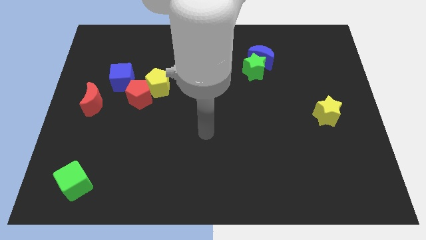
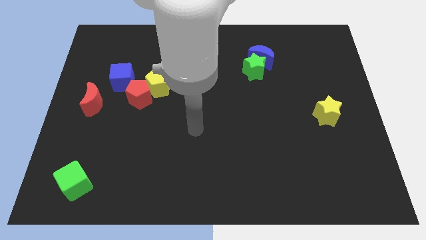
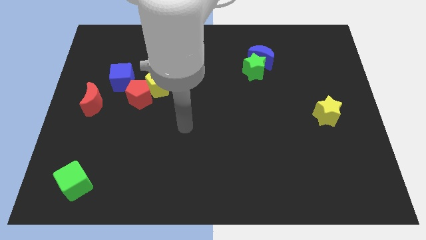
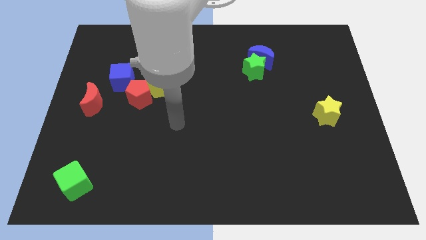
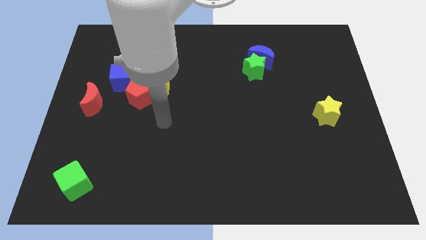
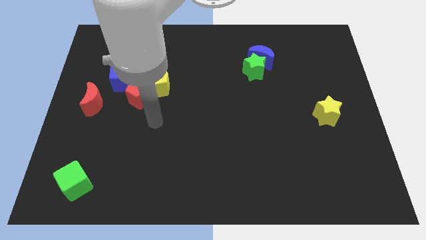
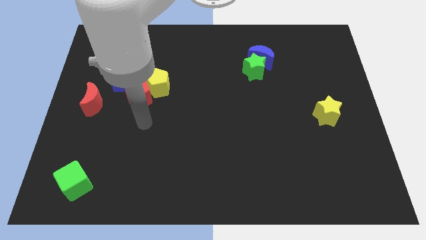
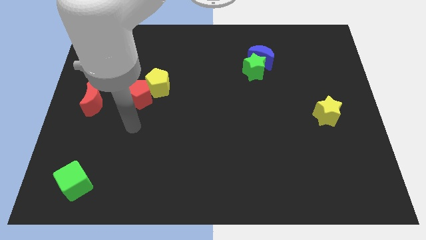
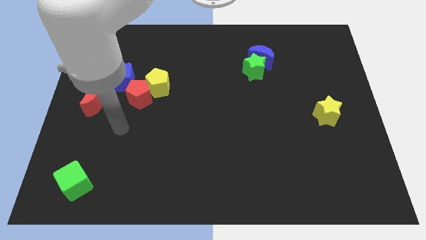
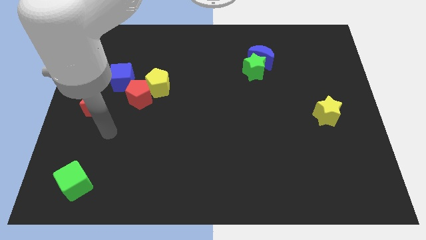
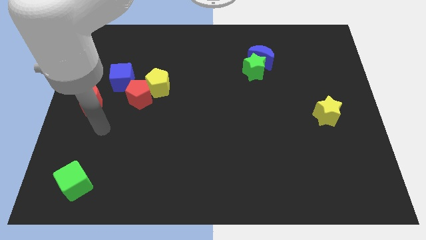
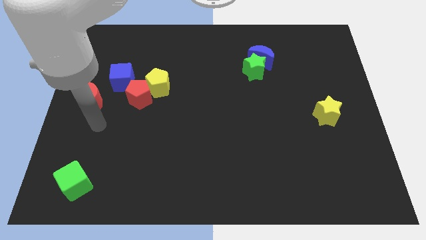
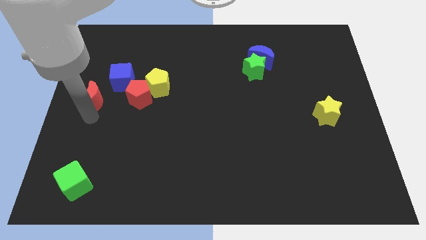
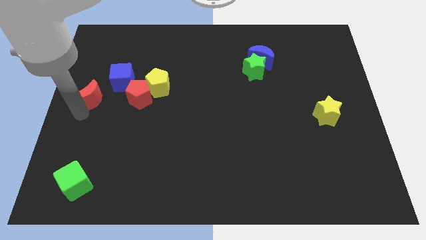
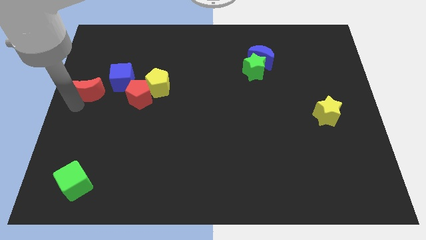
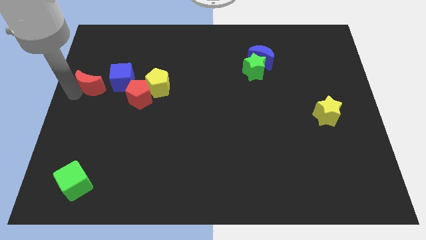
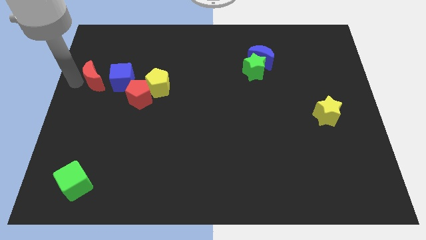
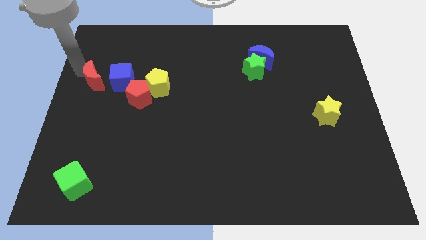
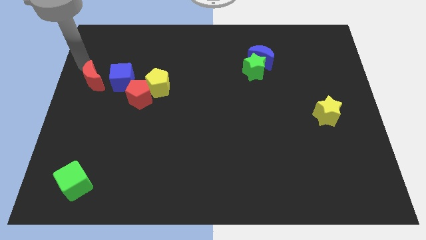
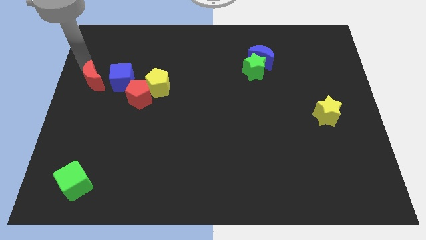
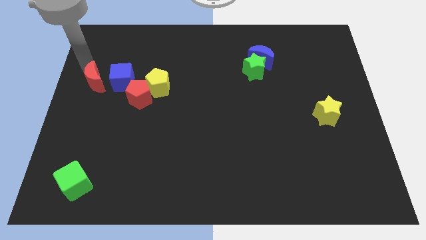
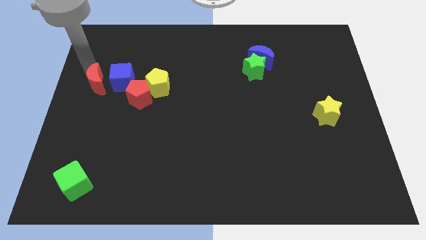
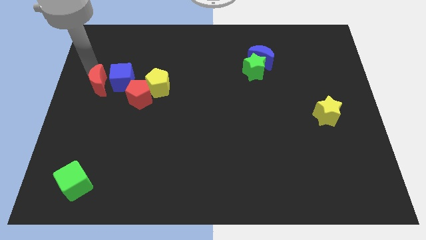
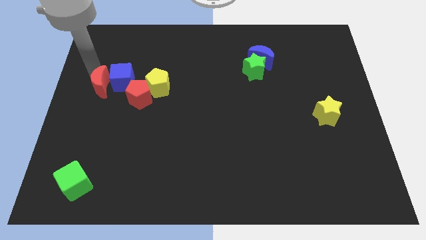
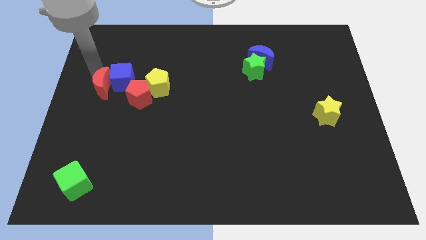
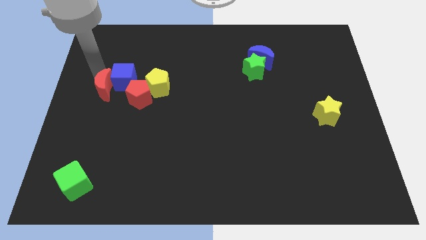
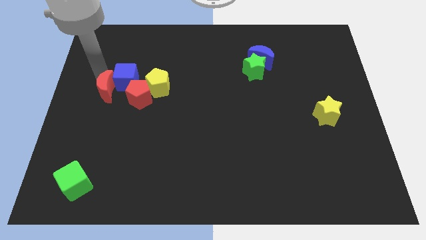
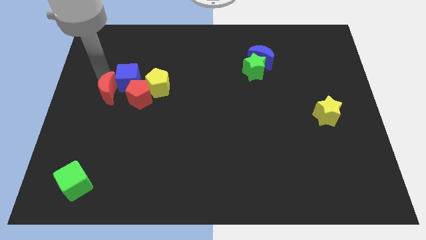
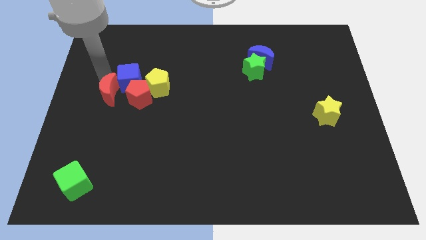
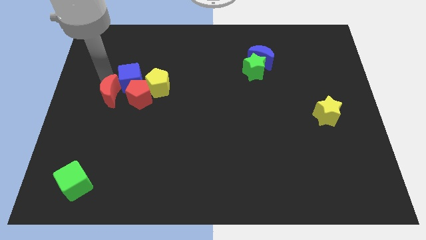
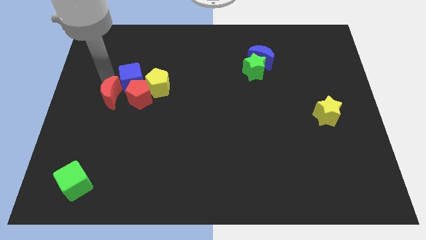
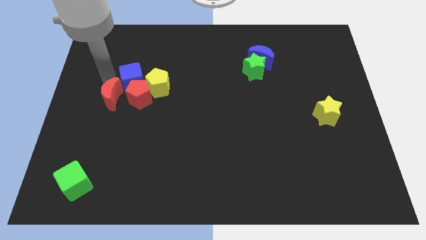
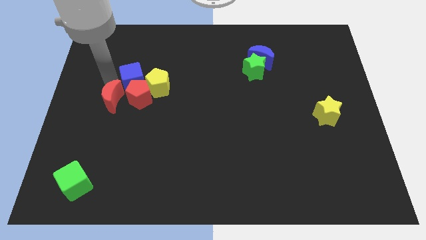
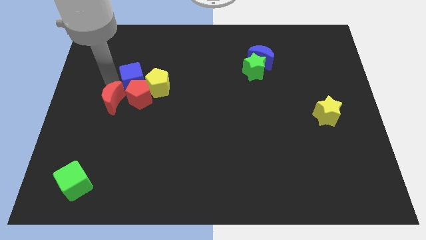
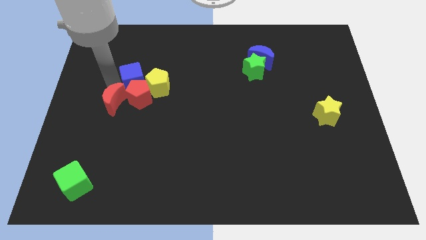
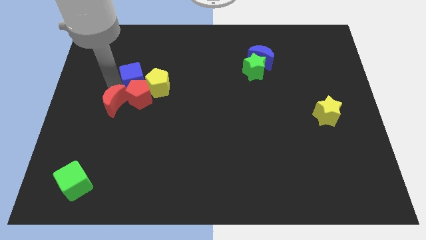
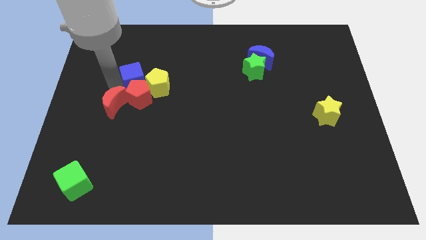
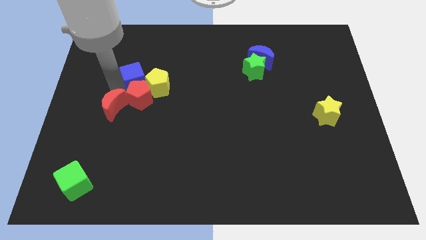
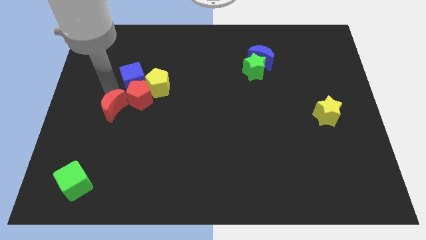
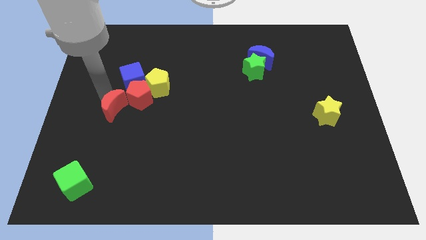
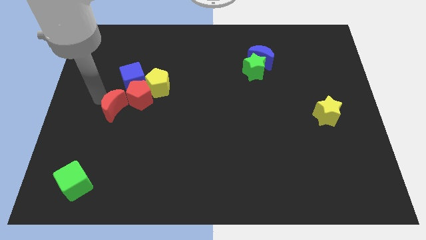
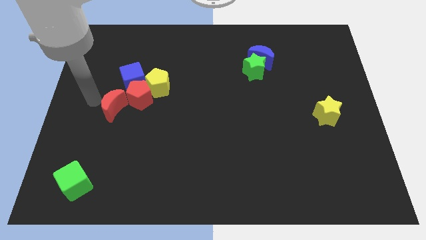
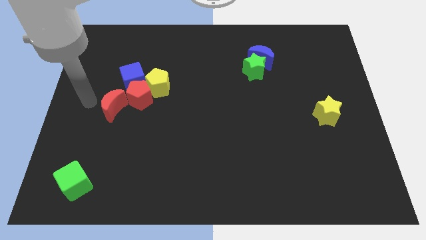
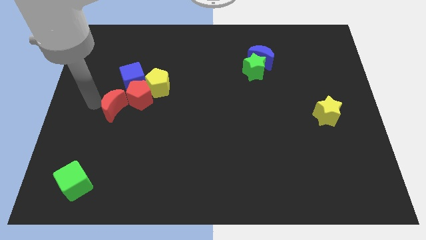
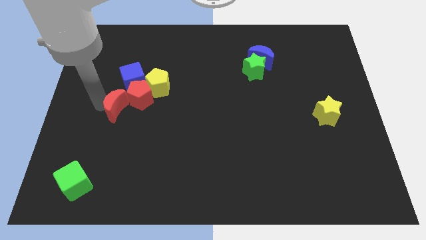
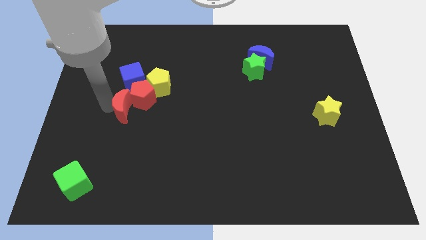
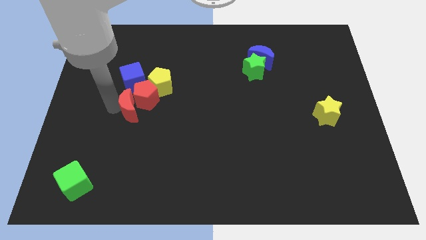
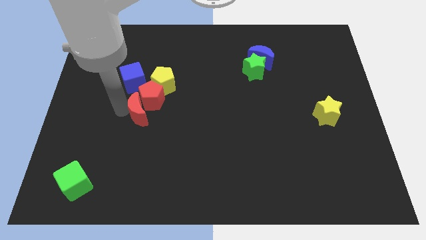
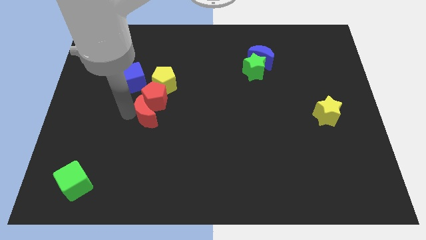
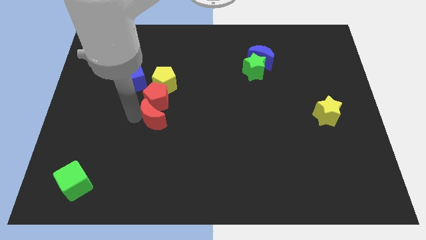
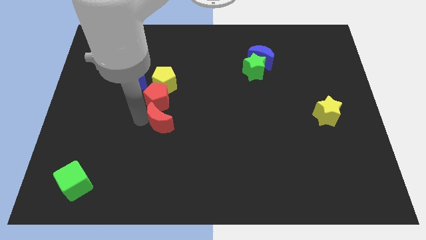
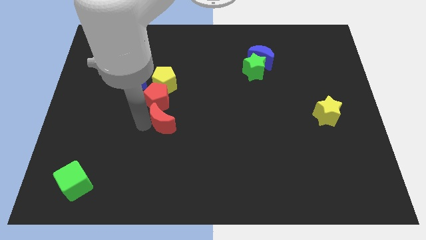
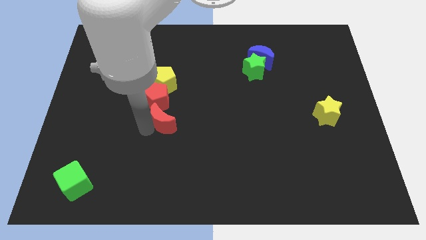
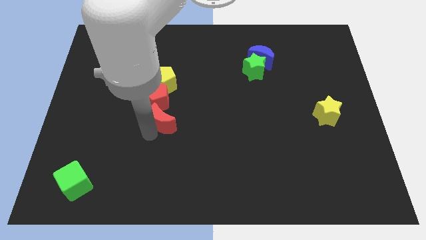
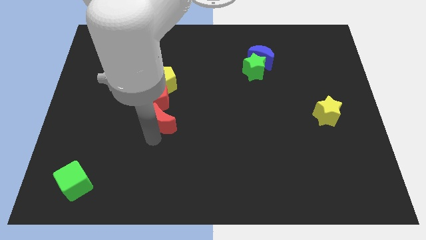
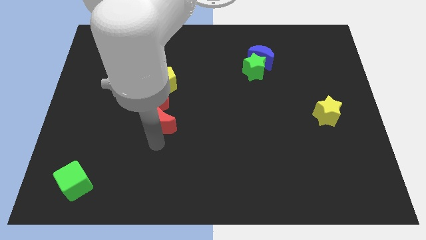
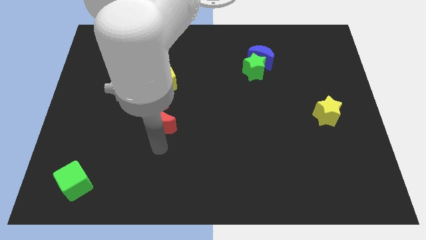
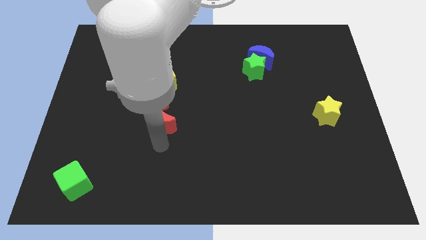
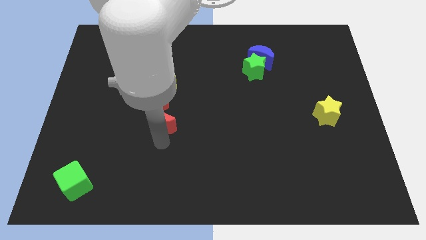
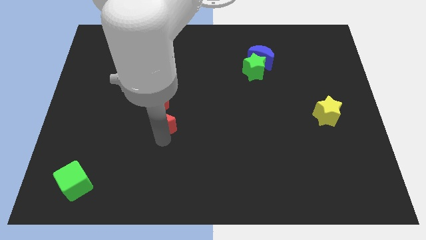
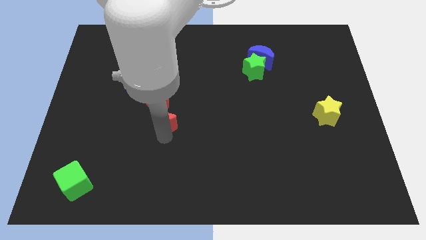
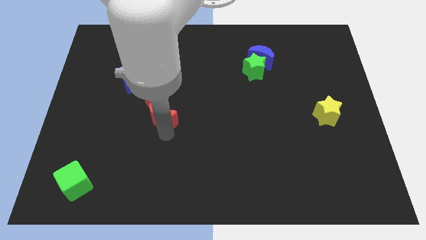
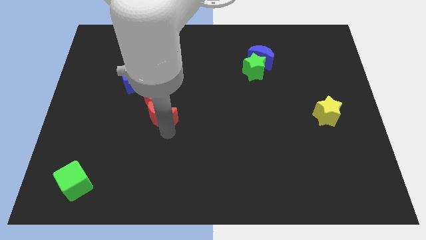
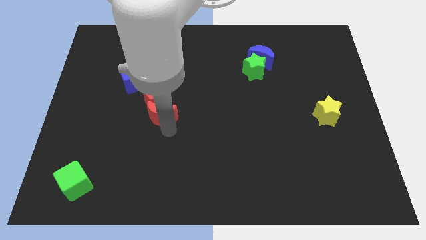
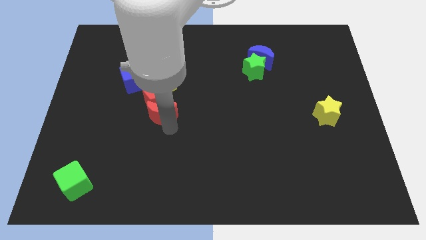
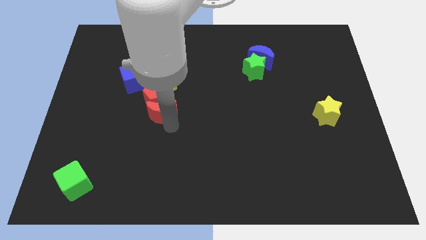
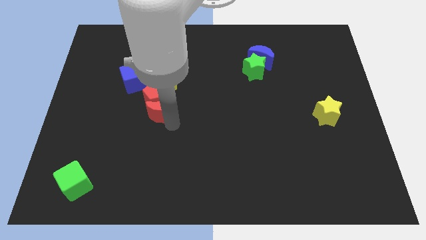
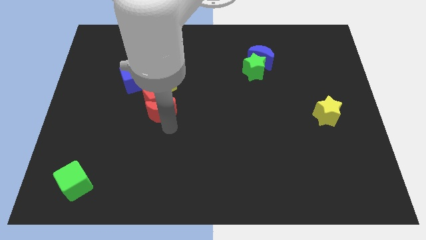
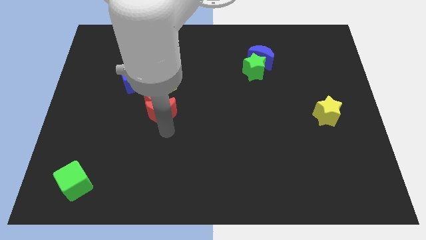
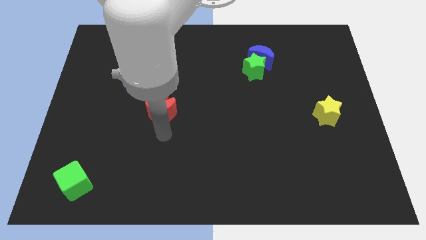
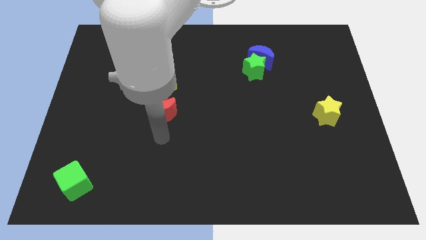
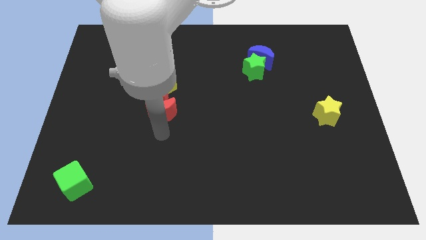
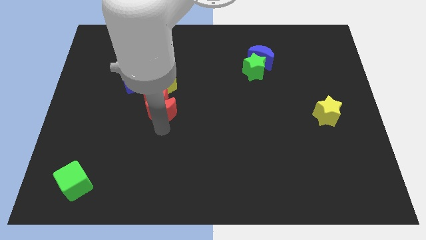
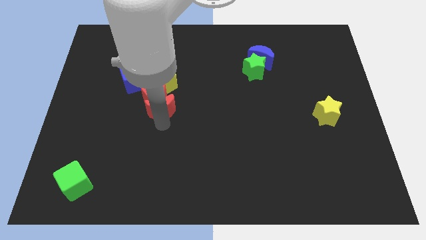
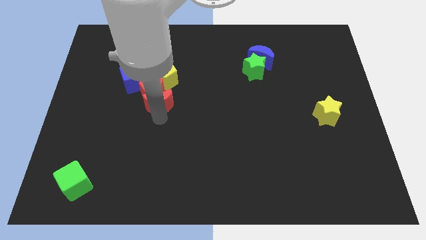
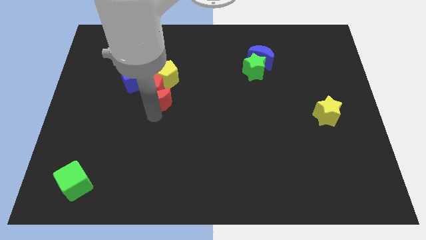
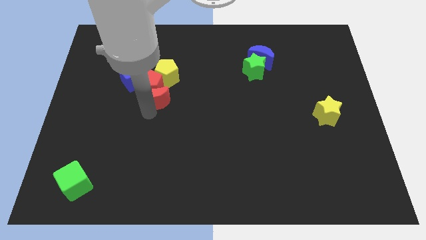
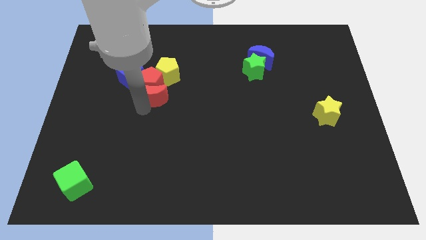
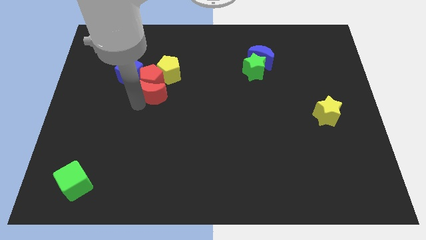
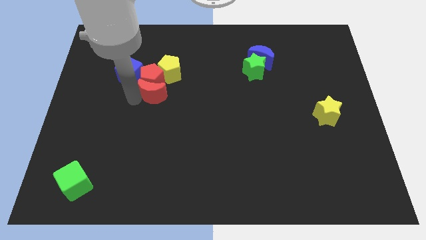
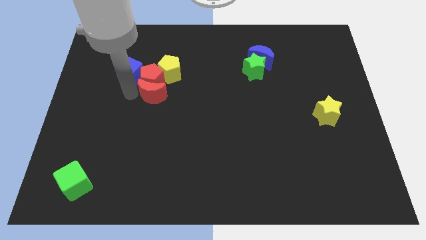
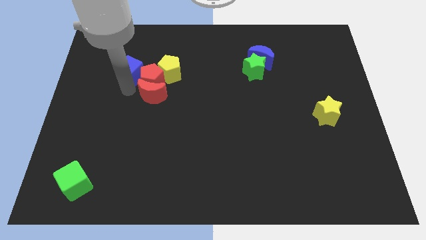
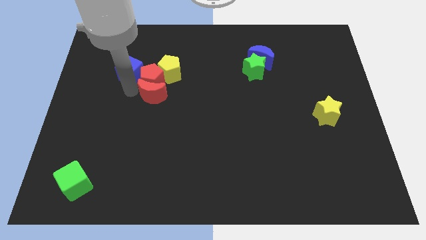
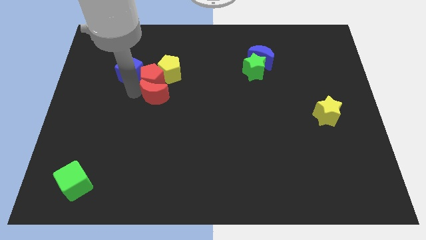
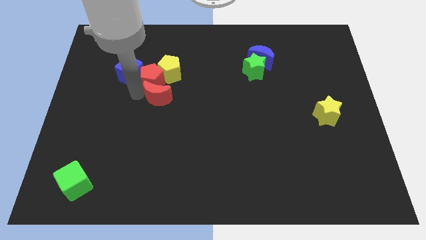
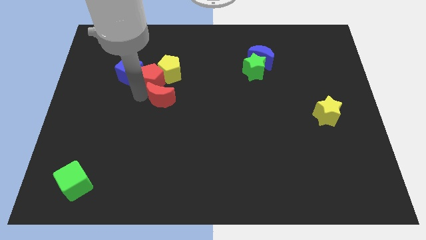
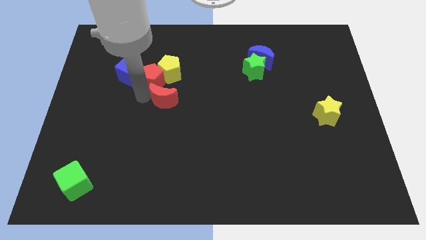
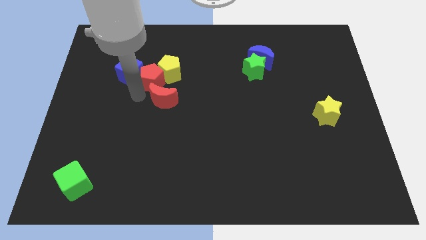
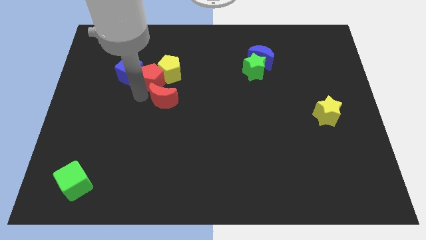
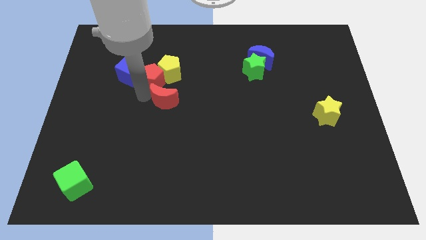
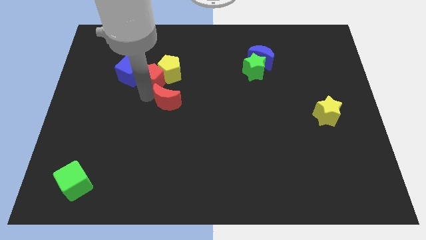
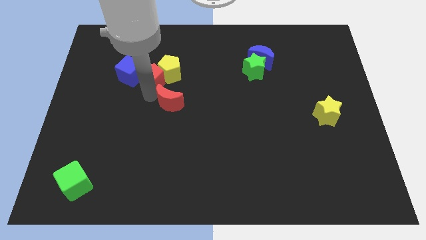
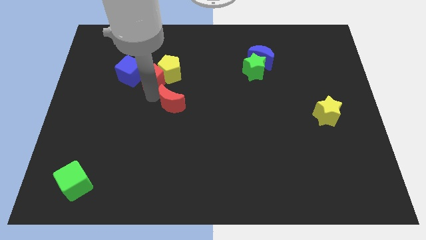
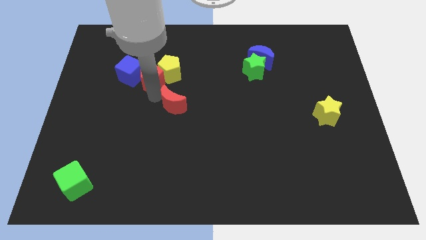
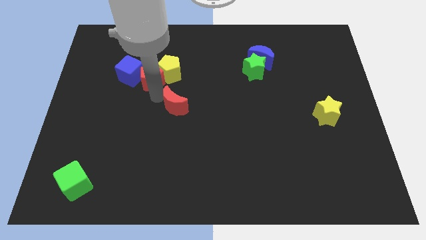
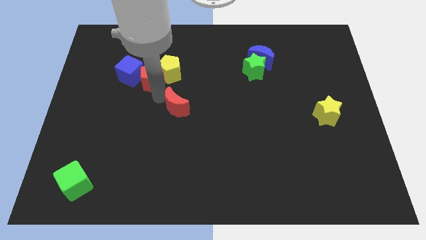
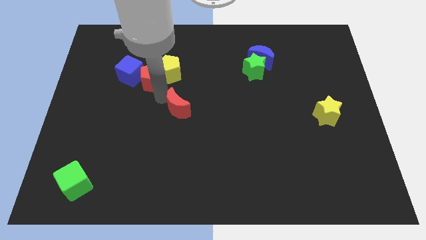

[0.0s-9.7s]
slide the red moon right
